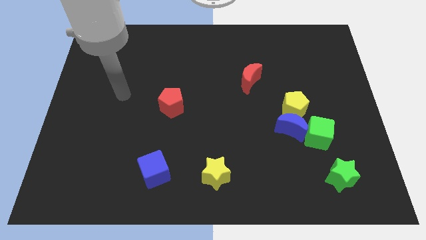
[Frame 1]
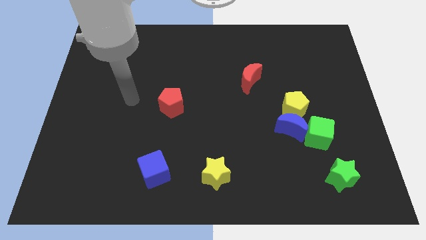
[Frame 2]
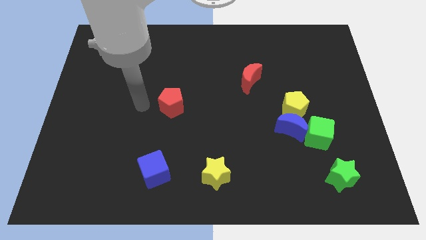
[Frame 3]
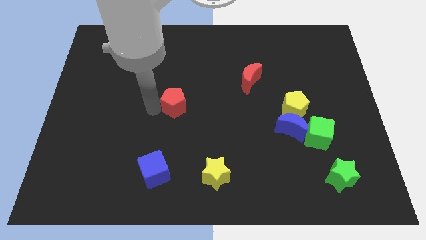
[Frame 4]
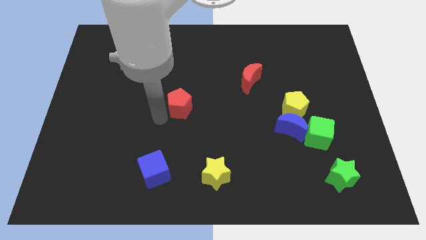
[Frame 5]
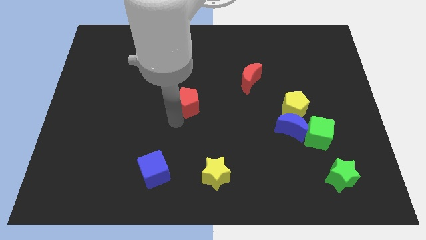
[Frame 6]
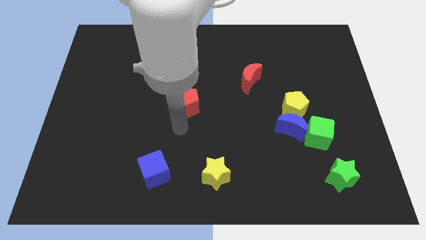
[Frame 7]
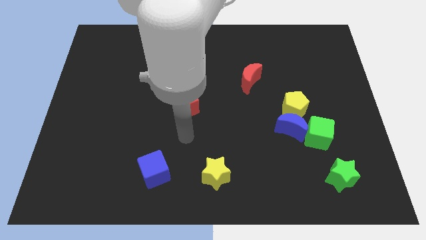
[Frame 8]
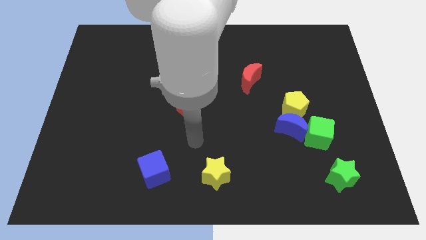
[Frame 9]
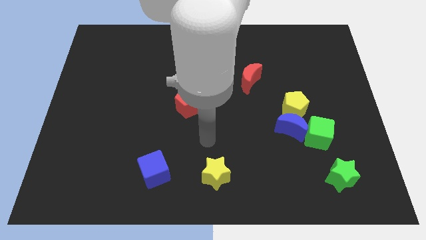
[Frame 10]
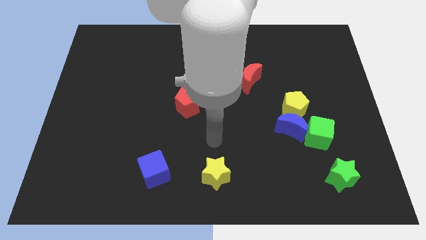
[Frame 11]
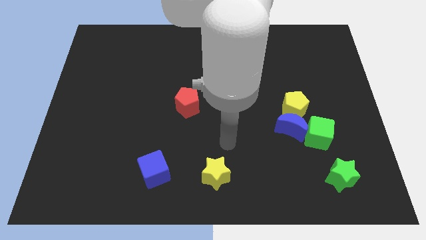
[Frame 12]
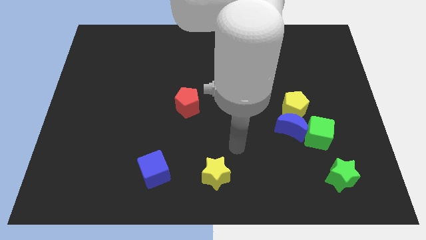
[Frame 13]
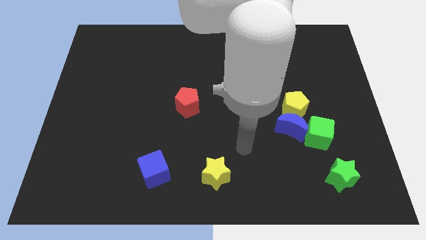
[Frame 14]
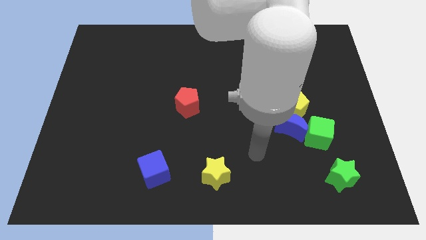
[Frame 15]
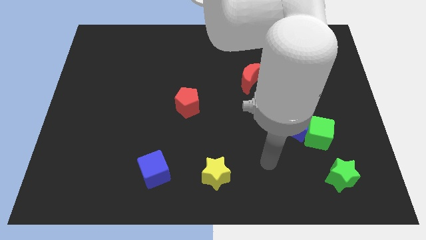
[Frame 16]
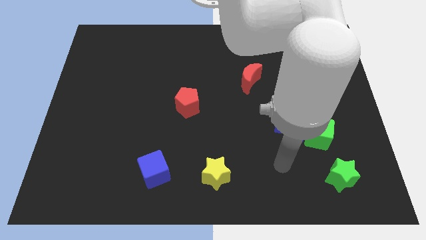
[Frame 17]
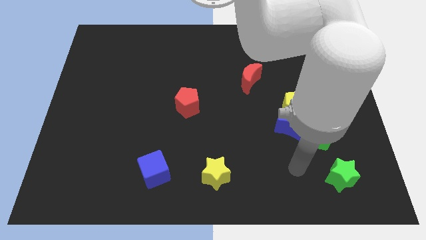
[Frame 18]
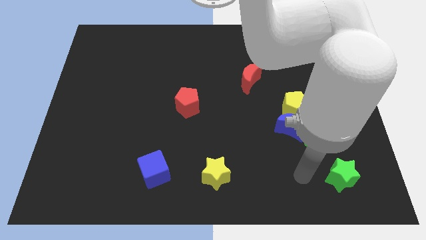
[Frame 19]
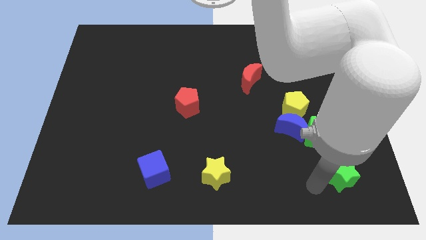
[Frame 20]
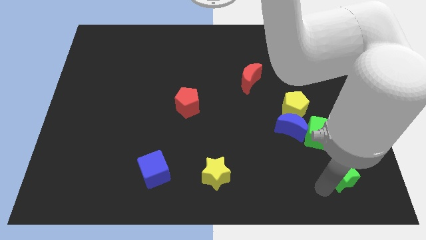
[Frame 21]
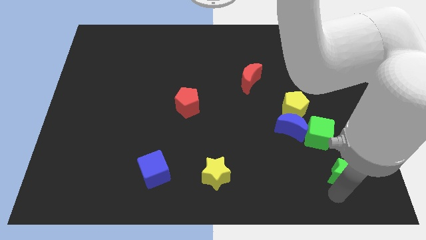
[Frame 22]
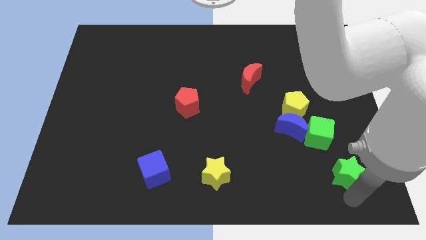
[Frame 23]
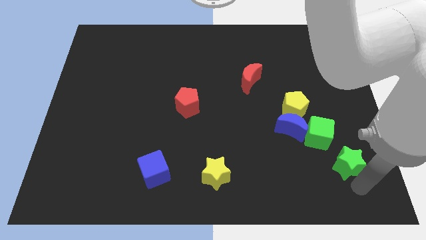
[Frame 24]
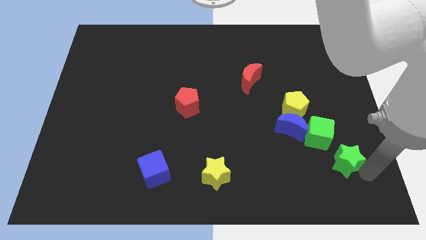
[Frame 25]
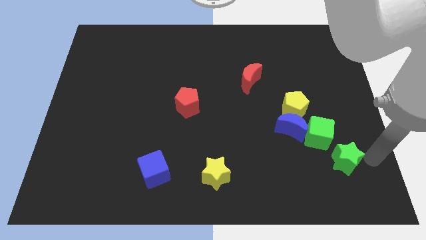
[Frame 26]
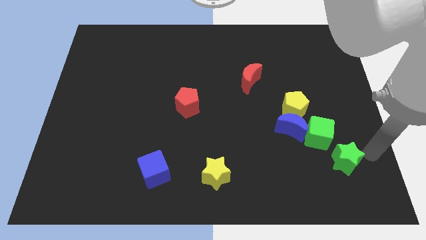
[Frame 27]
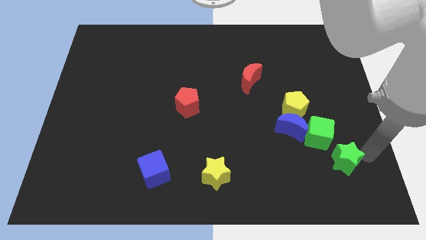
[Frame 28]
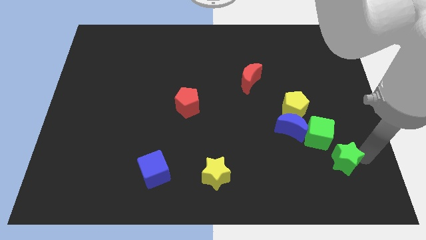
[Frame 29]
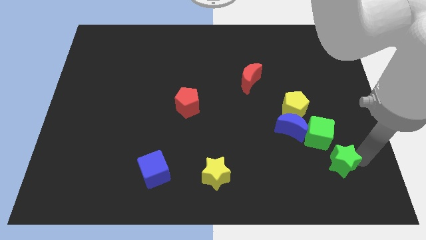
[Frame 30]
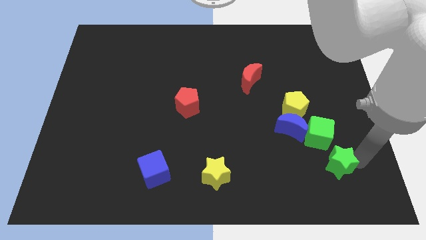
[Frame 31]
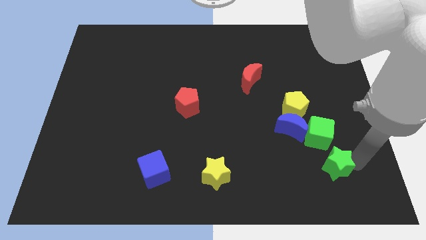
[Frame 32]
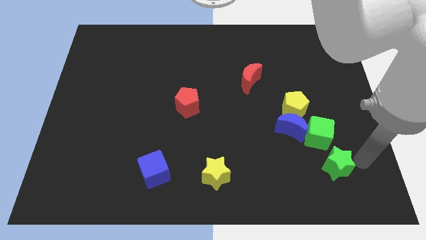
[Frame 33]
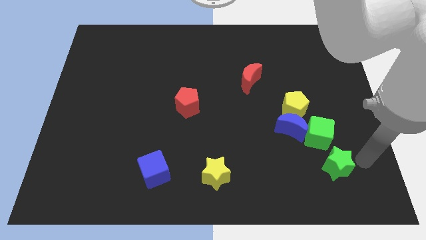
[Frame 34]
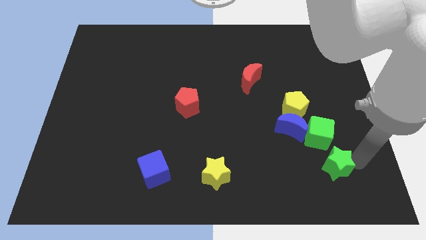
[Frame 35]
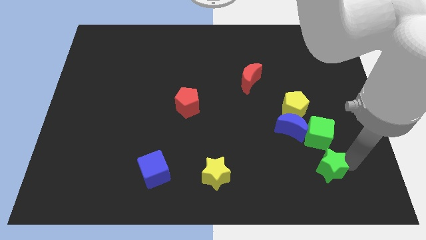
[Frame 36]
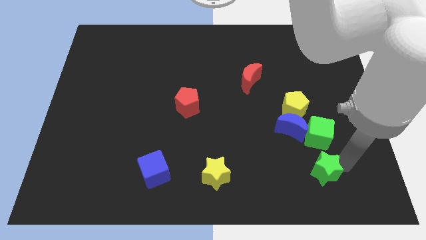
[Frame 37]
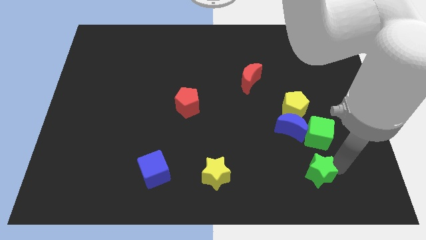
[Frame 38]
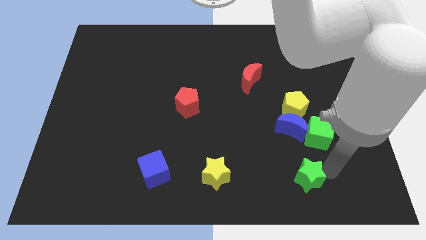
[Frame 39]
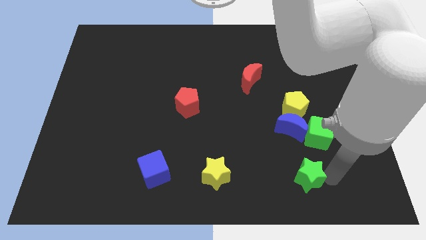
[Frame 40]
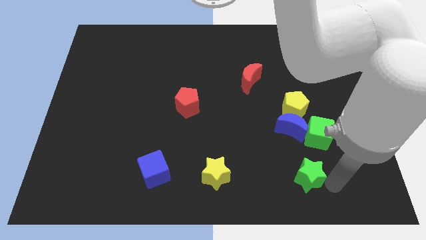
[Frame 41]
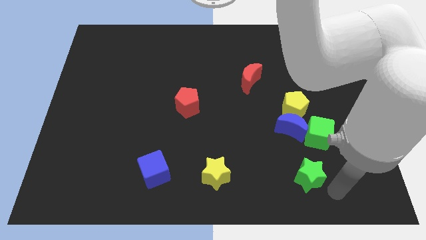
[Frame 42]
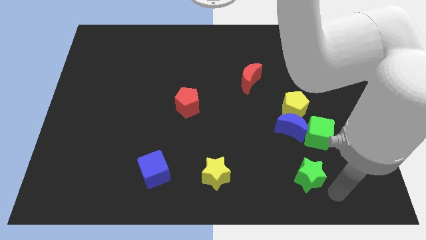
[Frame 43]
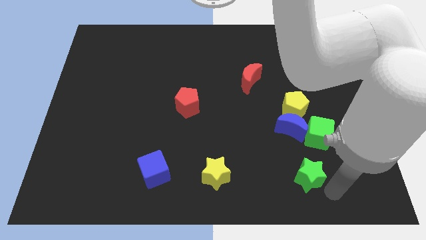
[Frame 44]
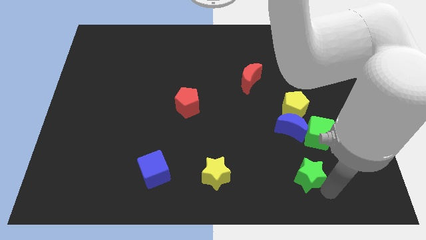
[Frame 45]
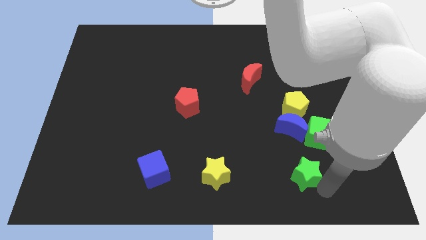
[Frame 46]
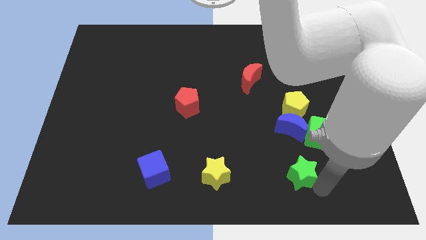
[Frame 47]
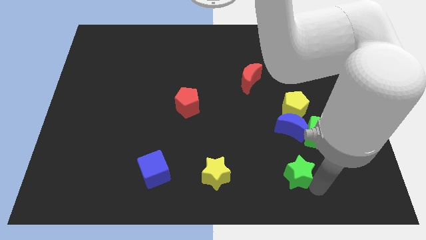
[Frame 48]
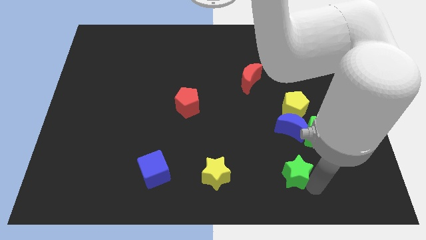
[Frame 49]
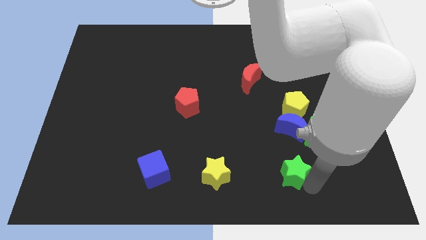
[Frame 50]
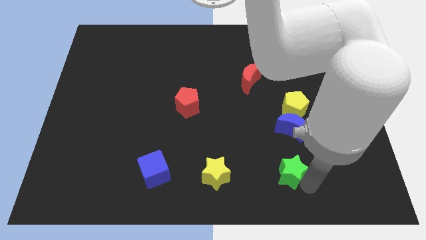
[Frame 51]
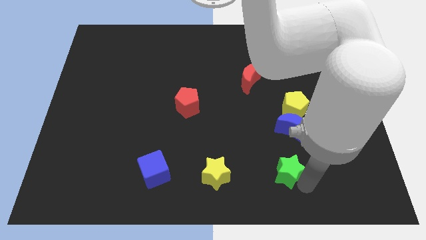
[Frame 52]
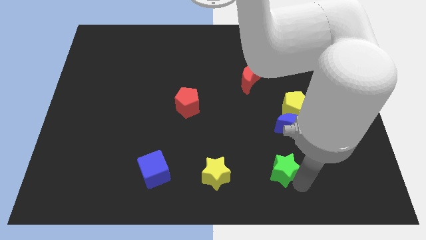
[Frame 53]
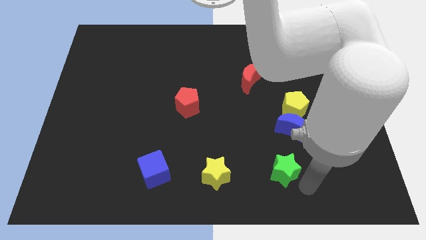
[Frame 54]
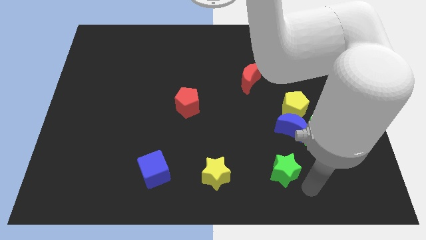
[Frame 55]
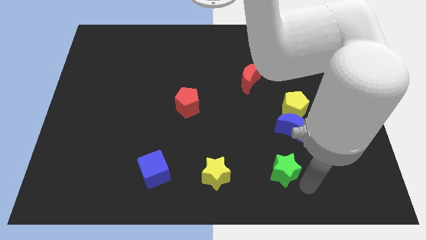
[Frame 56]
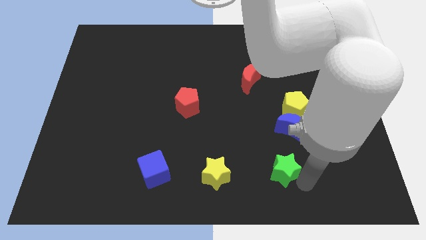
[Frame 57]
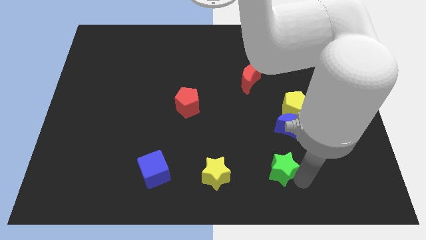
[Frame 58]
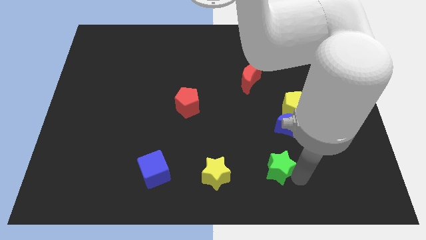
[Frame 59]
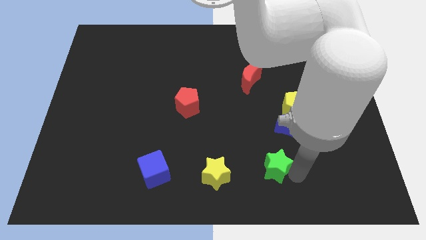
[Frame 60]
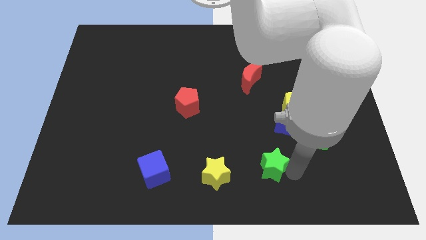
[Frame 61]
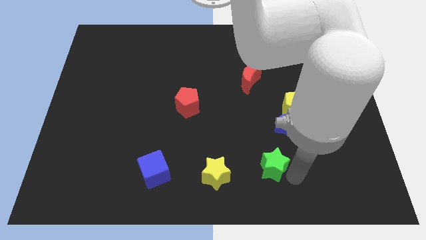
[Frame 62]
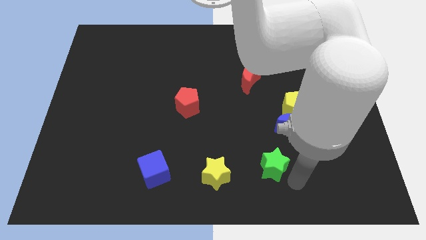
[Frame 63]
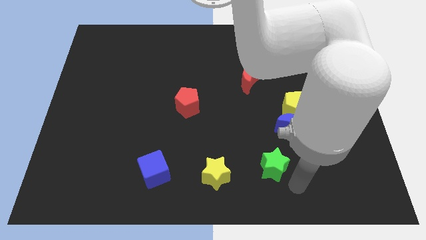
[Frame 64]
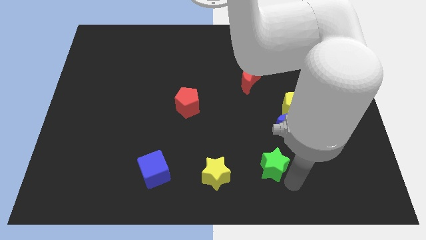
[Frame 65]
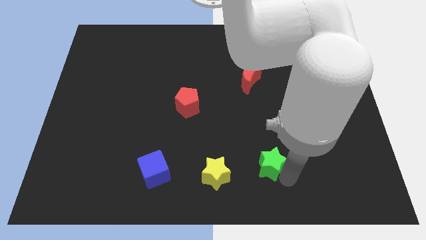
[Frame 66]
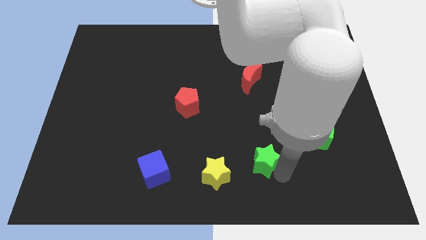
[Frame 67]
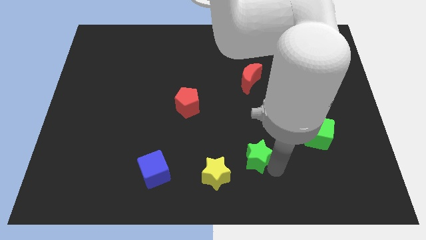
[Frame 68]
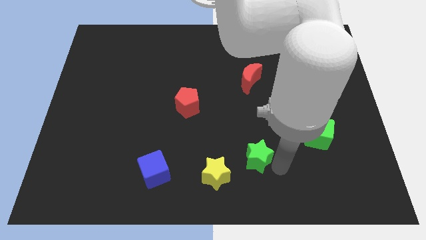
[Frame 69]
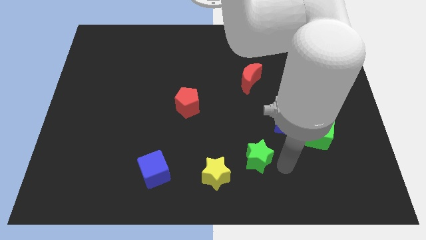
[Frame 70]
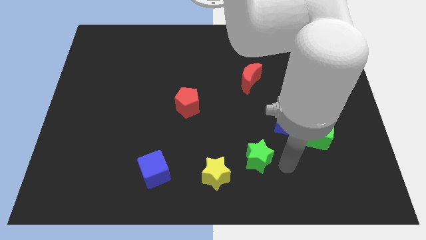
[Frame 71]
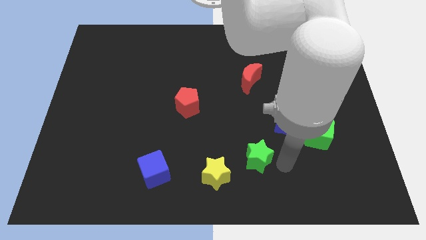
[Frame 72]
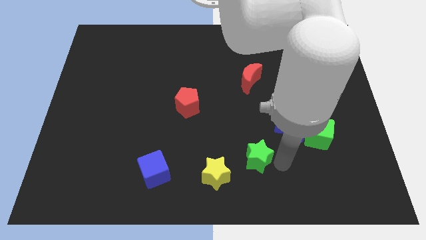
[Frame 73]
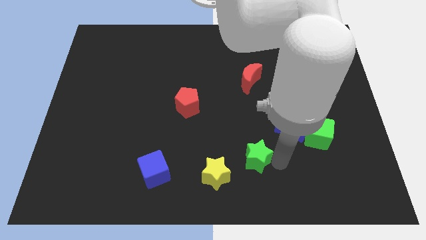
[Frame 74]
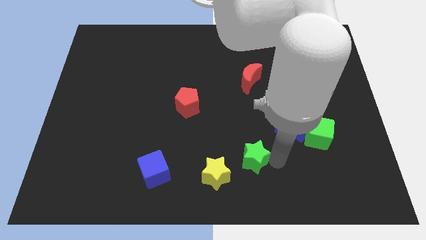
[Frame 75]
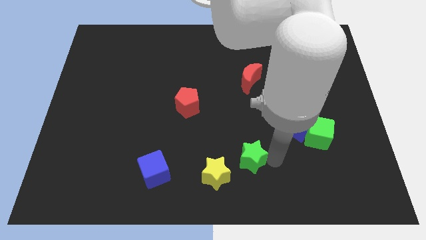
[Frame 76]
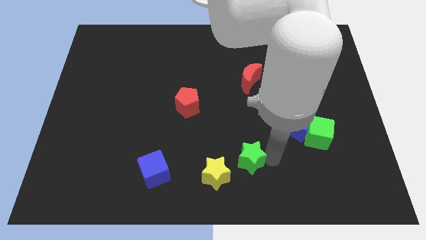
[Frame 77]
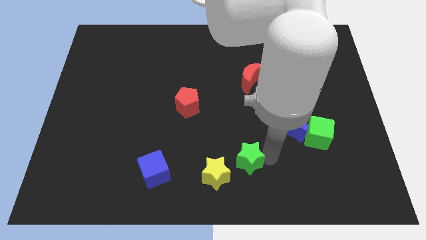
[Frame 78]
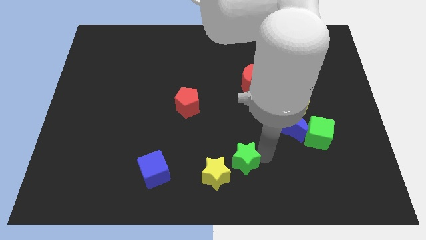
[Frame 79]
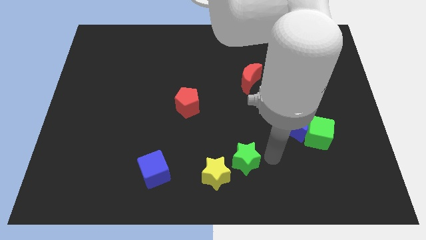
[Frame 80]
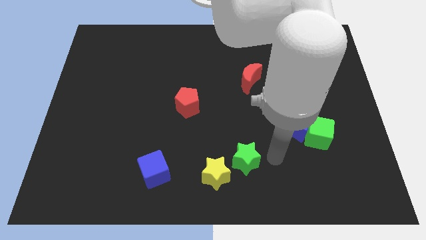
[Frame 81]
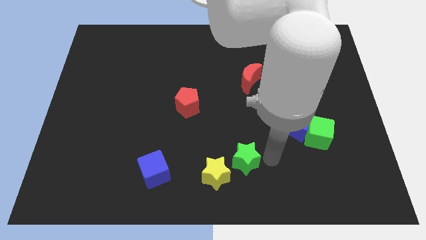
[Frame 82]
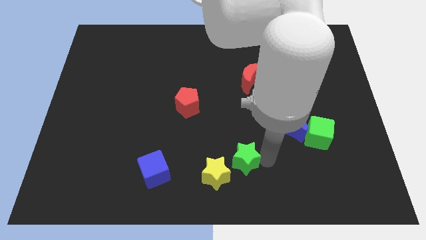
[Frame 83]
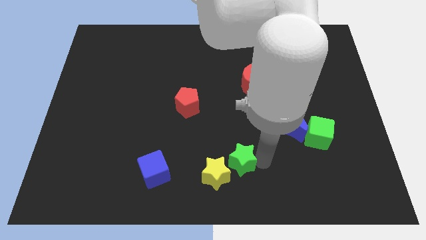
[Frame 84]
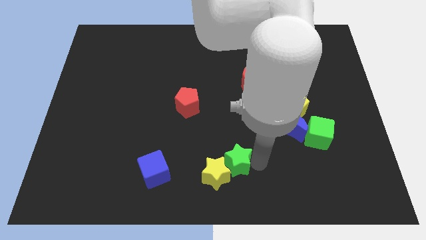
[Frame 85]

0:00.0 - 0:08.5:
slide the green star to the left
